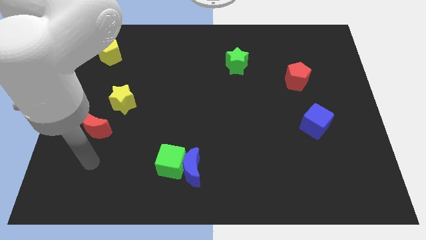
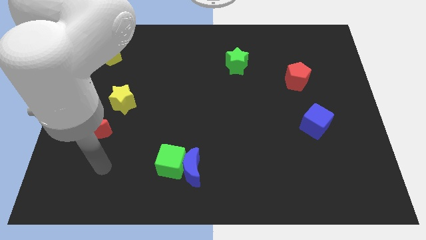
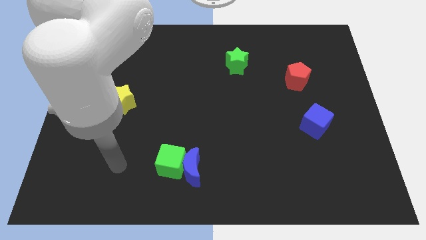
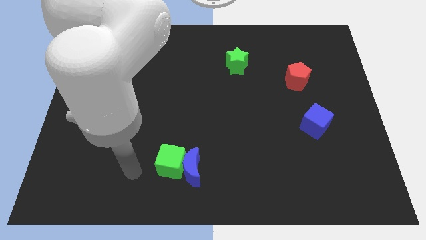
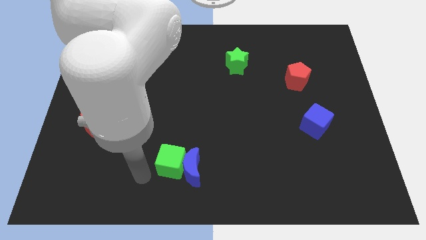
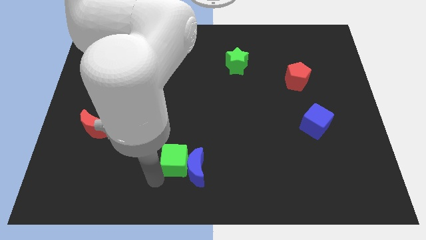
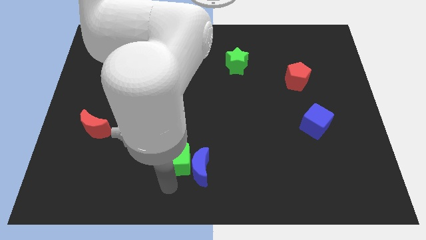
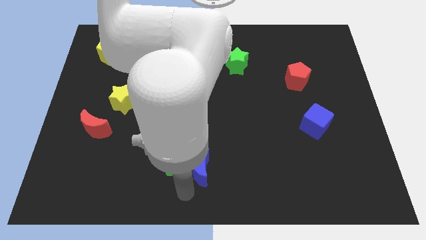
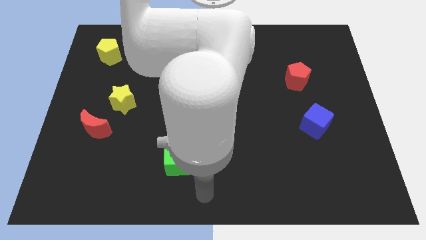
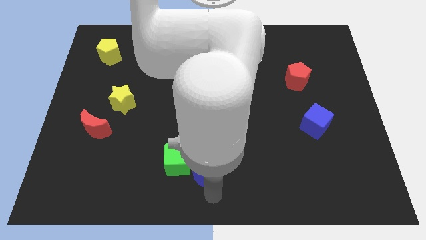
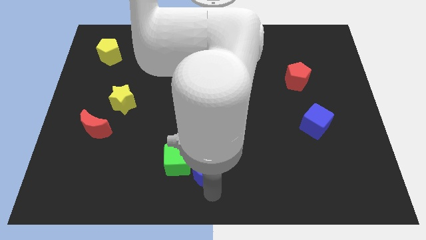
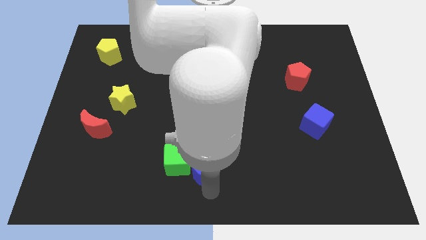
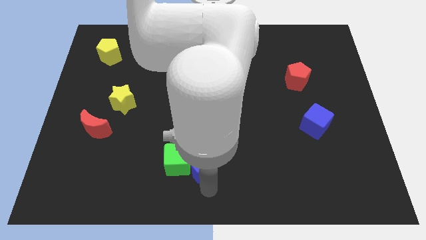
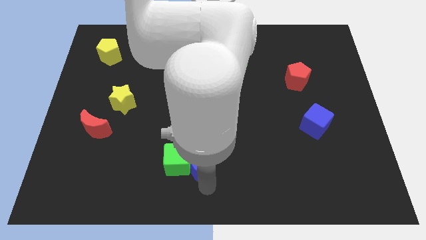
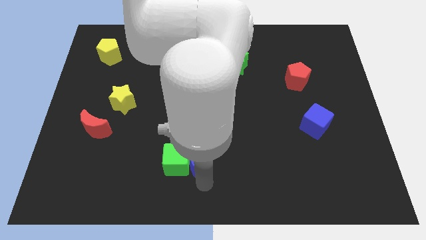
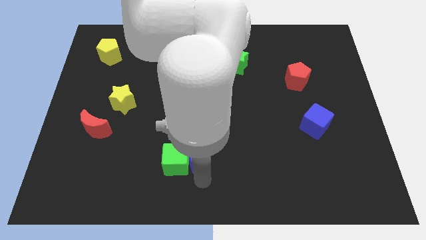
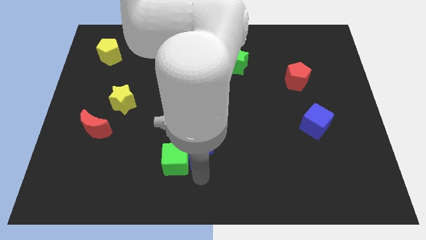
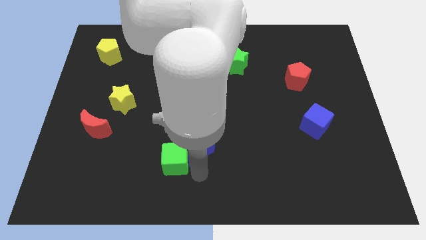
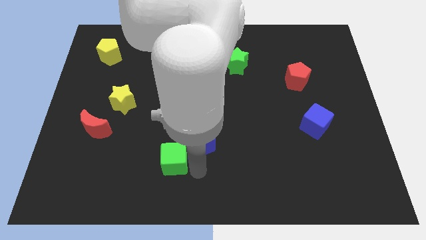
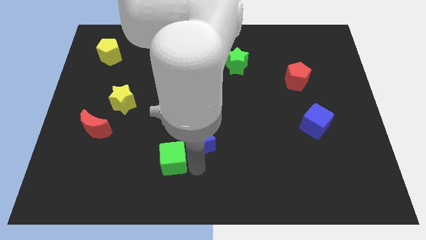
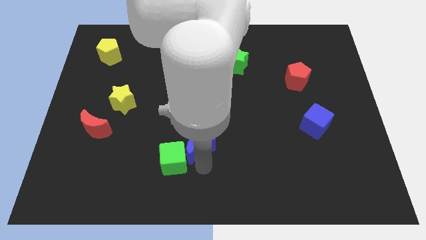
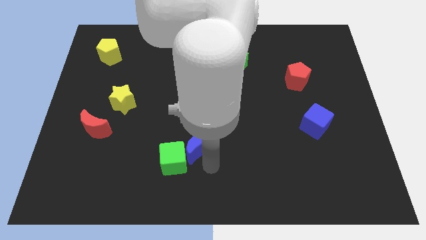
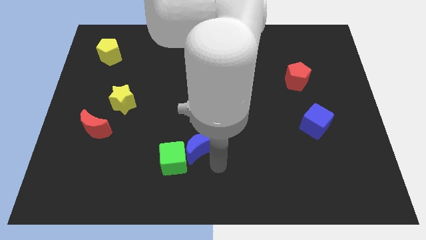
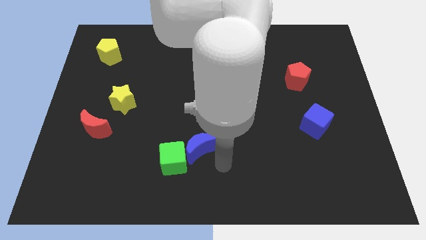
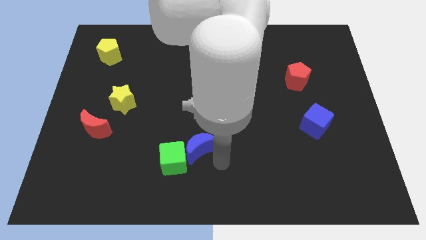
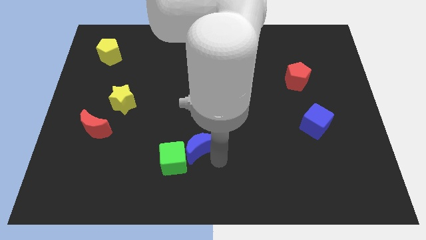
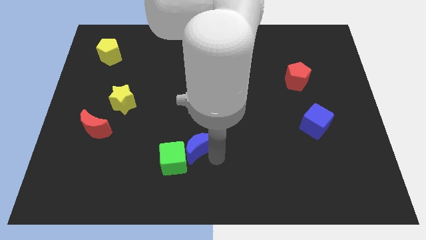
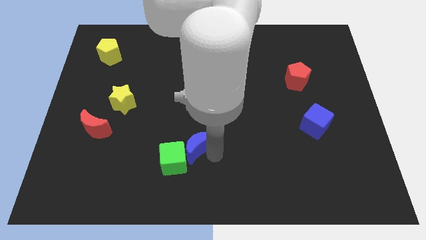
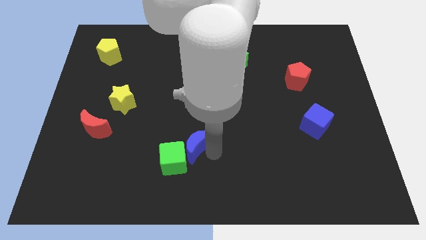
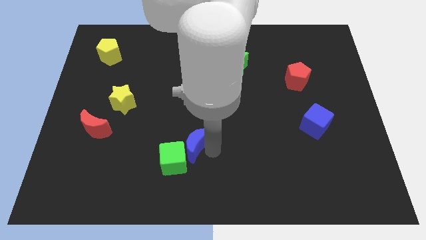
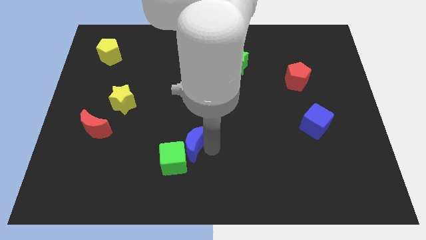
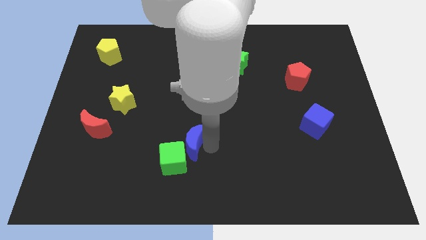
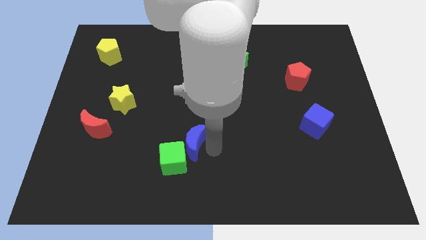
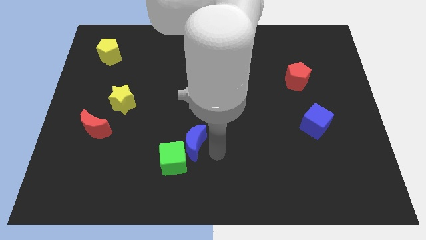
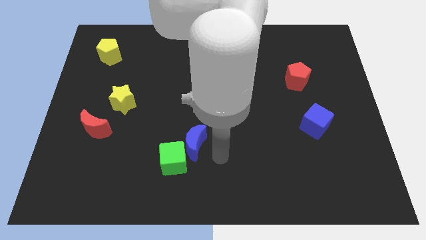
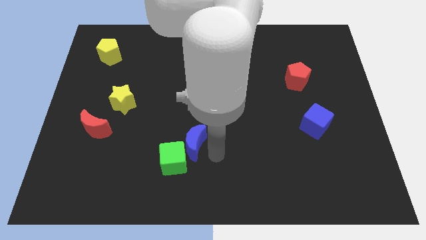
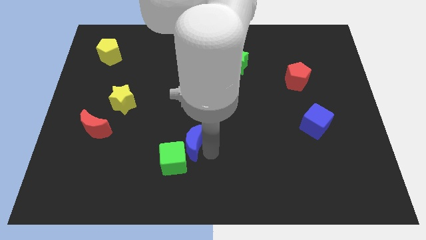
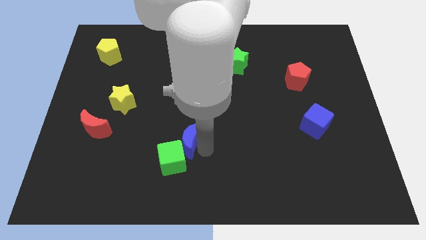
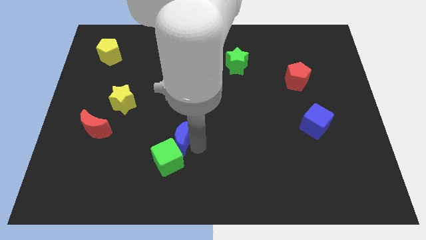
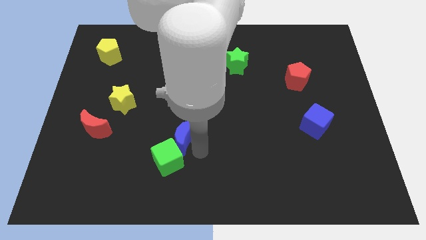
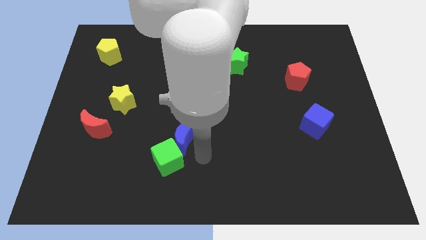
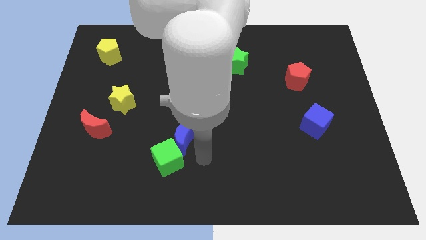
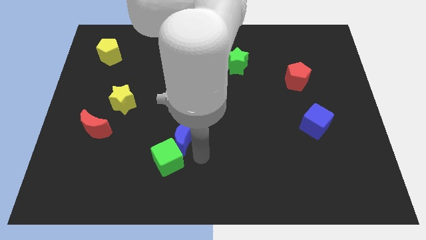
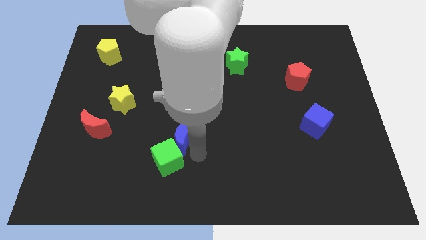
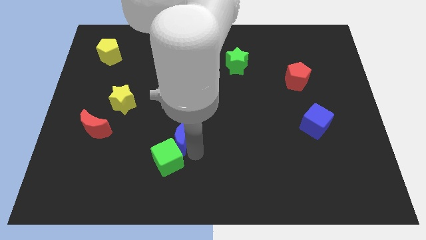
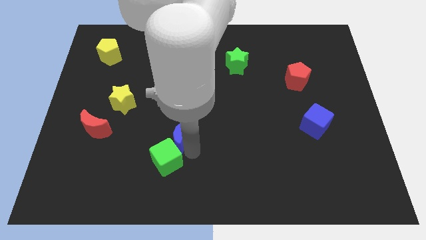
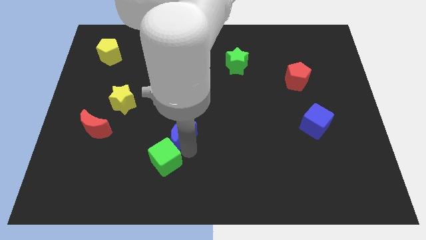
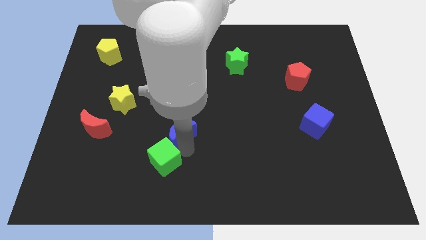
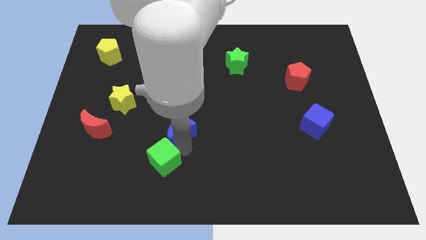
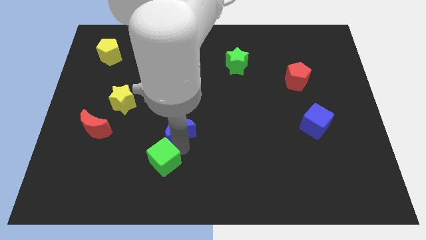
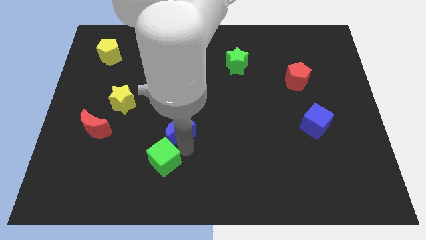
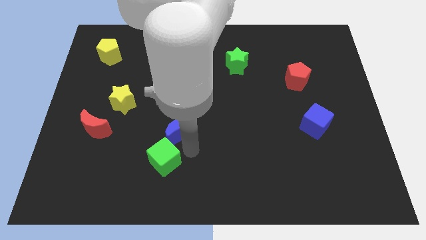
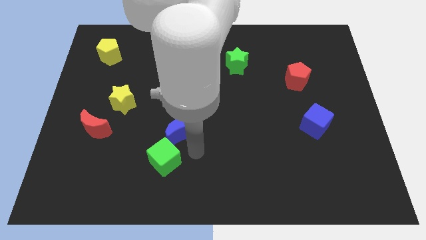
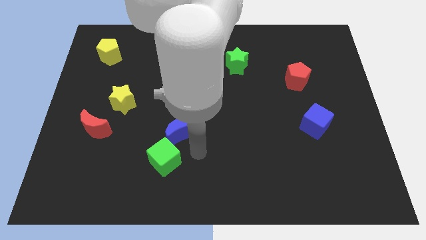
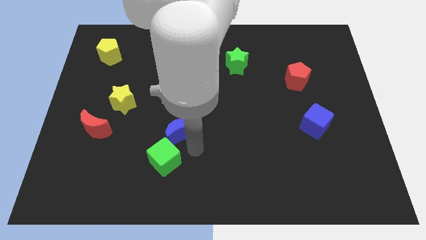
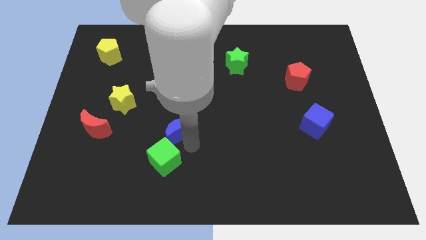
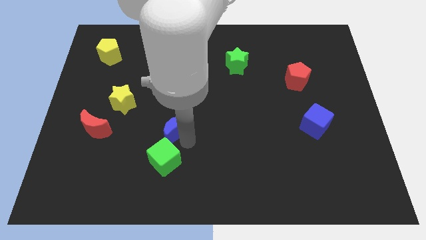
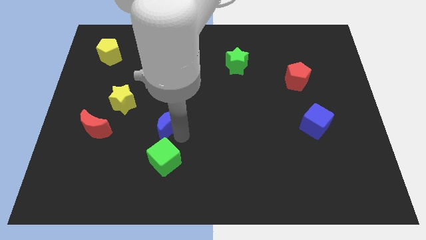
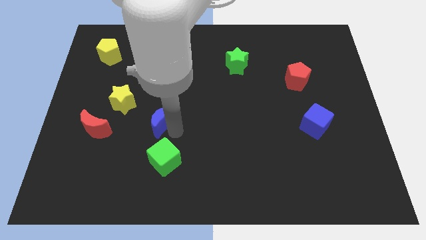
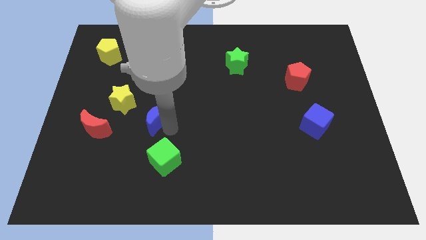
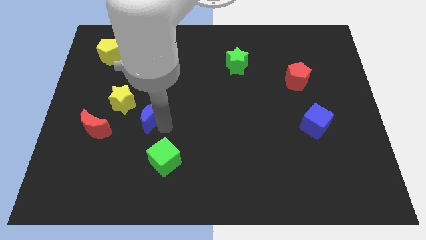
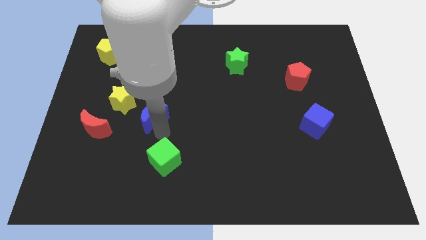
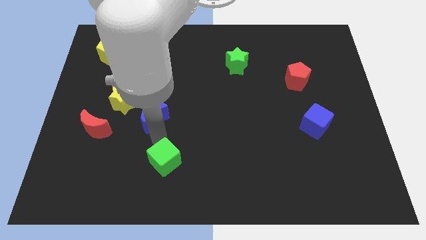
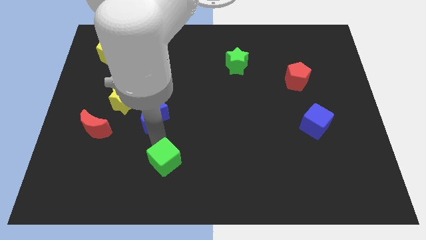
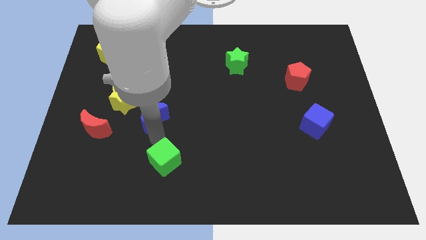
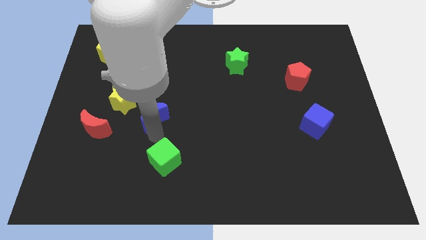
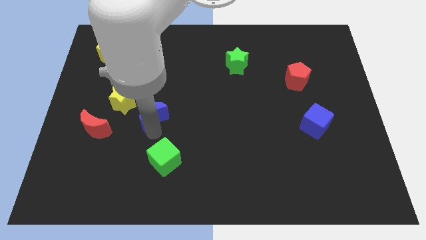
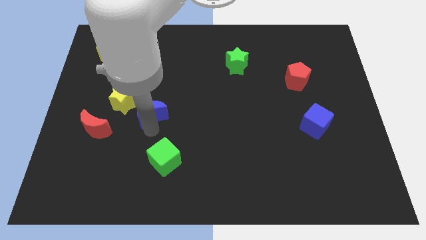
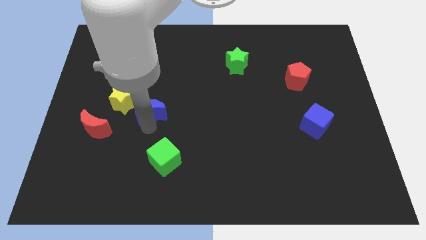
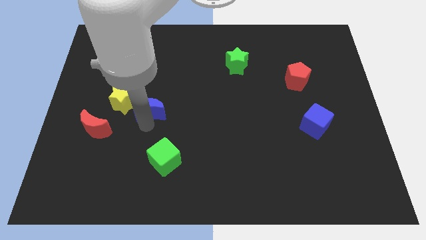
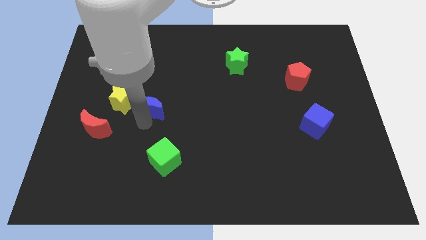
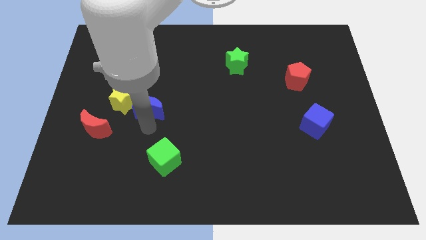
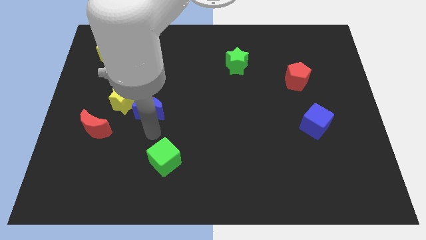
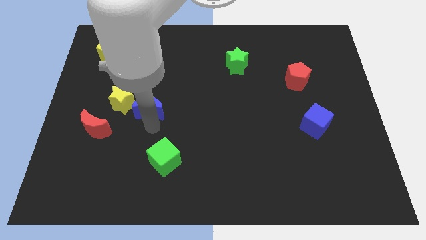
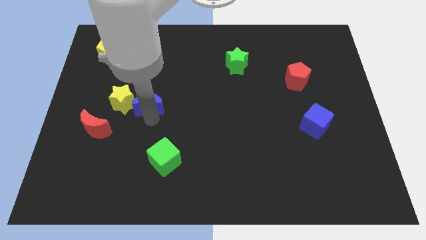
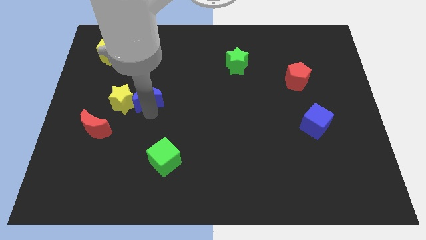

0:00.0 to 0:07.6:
move the blue moon to the top right of the yellow star
